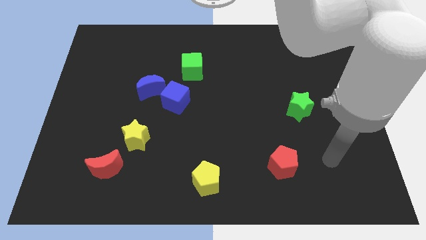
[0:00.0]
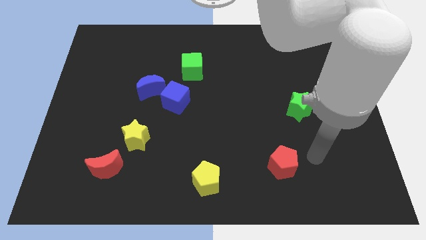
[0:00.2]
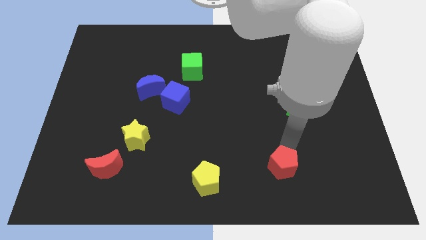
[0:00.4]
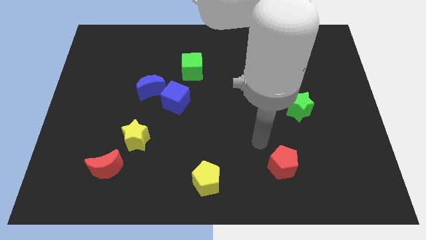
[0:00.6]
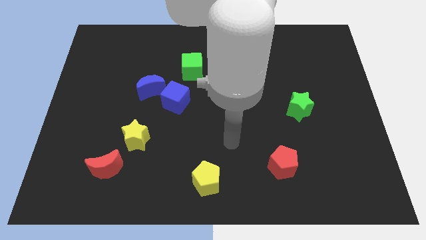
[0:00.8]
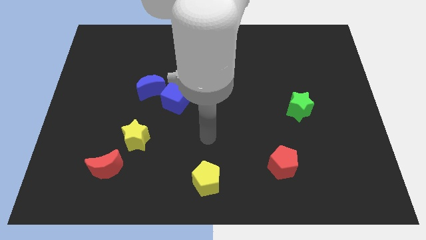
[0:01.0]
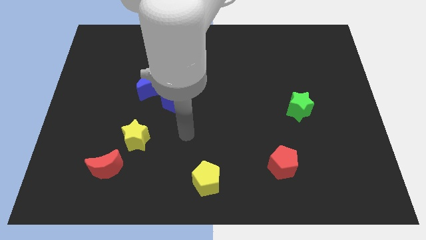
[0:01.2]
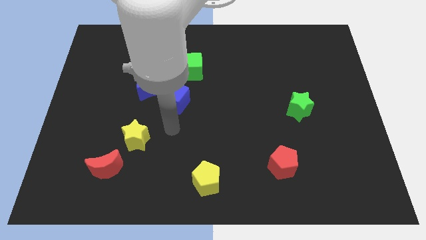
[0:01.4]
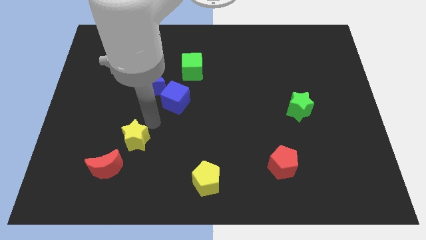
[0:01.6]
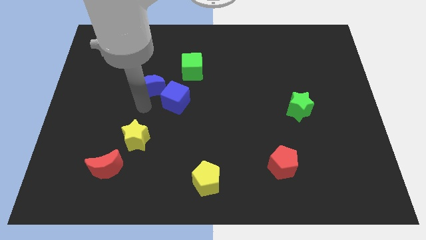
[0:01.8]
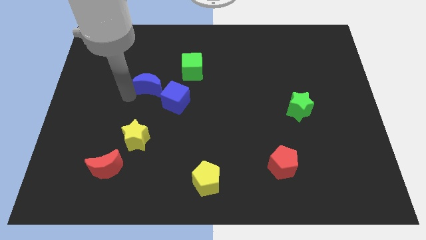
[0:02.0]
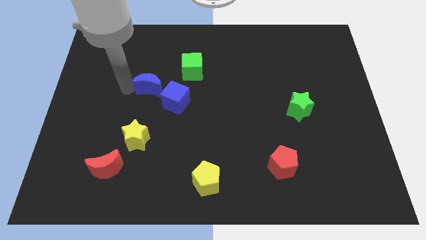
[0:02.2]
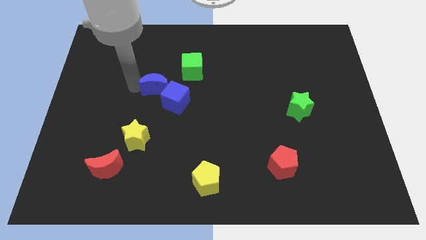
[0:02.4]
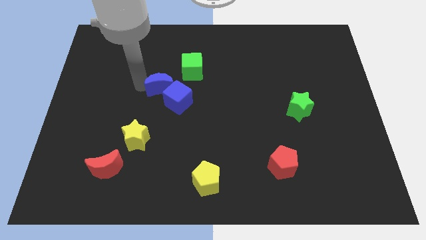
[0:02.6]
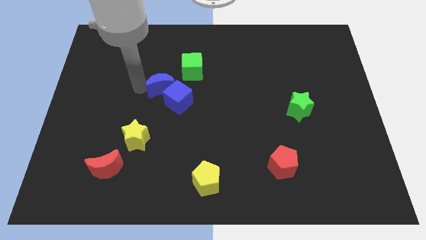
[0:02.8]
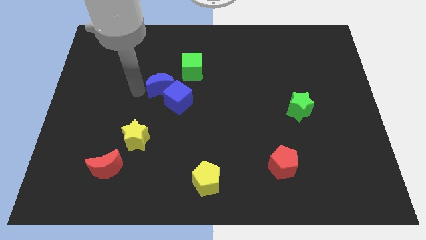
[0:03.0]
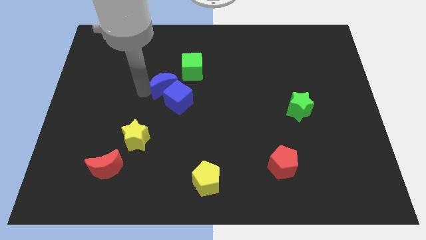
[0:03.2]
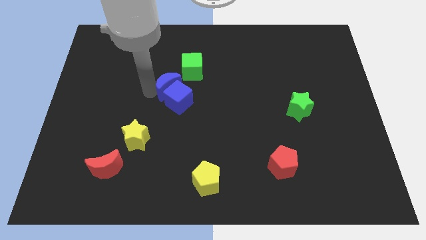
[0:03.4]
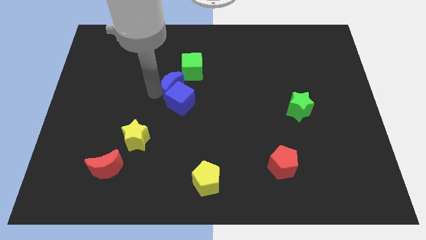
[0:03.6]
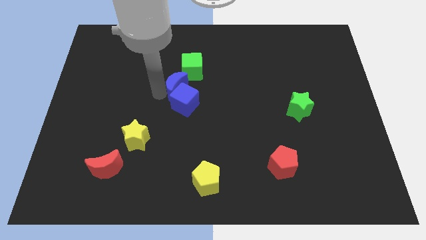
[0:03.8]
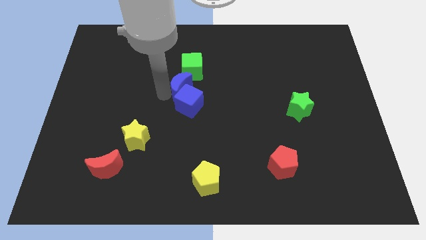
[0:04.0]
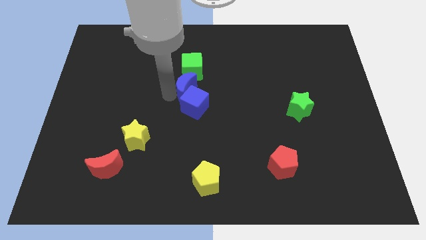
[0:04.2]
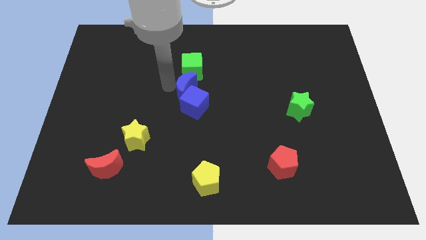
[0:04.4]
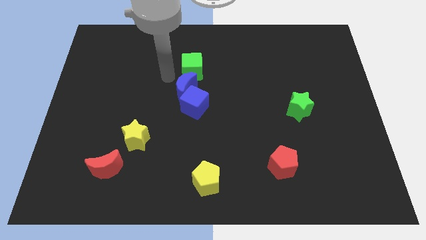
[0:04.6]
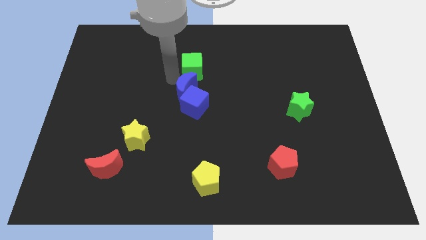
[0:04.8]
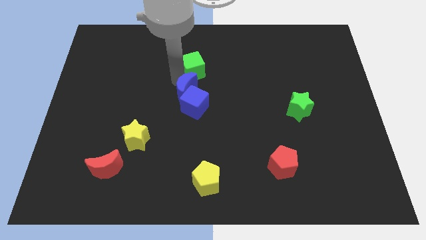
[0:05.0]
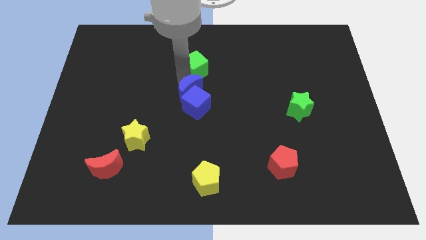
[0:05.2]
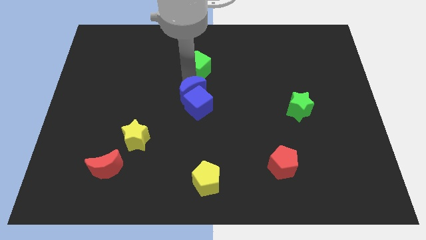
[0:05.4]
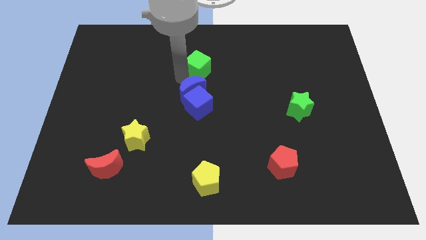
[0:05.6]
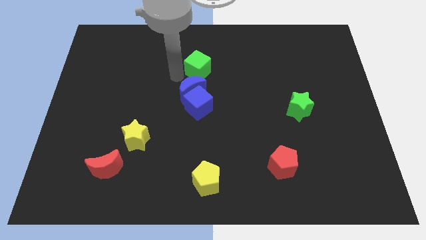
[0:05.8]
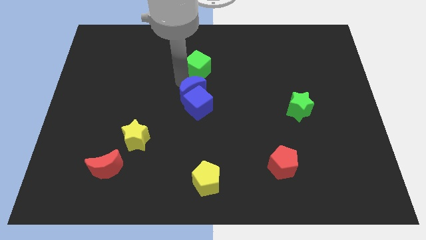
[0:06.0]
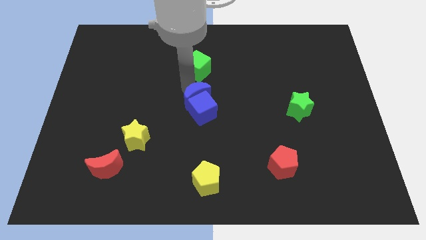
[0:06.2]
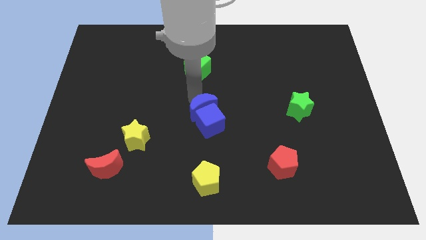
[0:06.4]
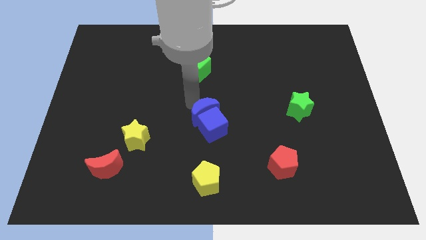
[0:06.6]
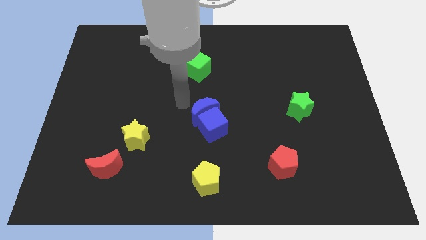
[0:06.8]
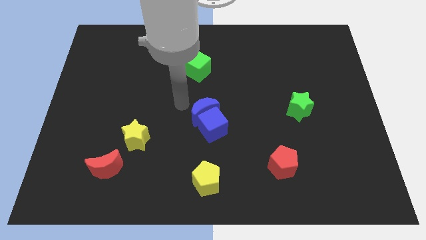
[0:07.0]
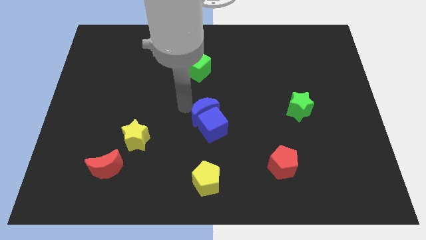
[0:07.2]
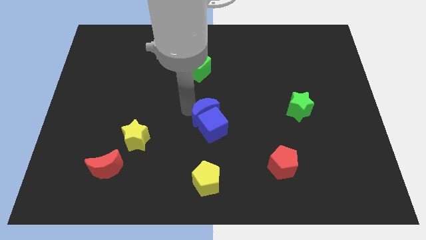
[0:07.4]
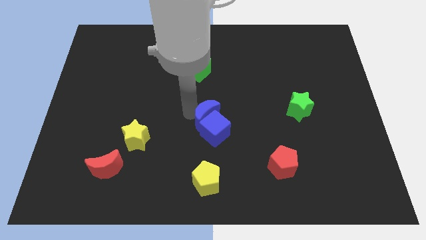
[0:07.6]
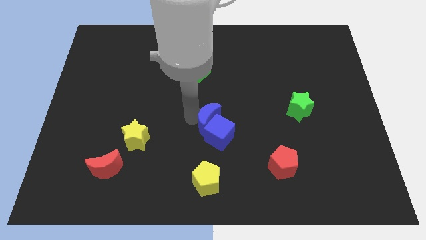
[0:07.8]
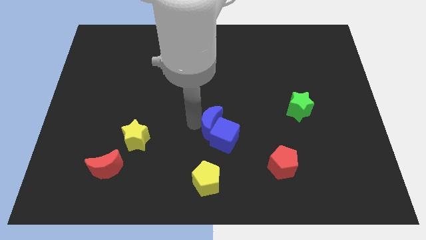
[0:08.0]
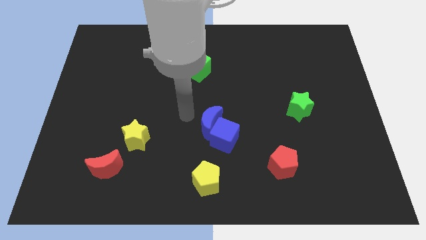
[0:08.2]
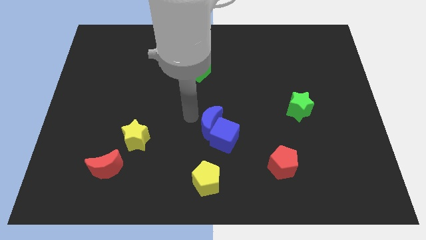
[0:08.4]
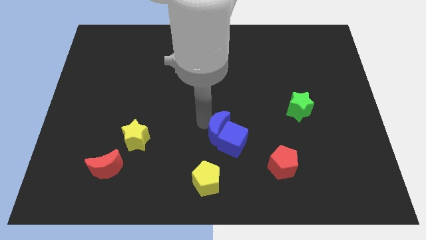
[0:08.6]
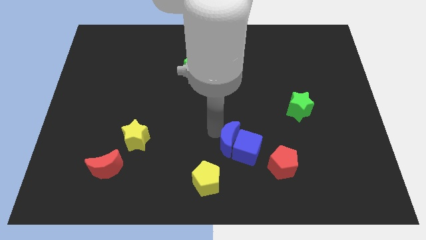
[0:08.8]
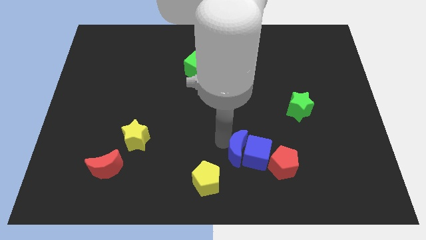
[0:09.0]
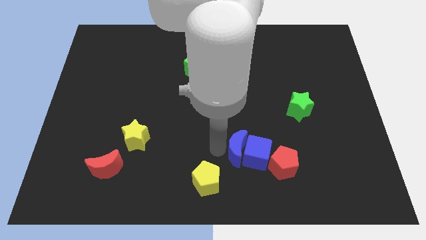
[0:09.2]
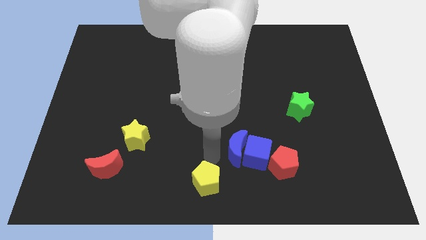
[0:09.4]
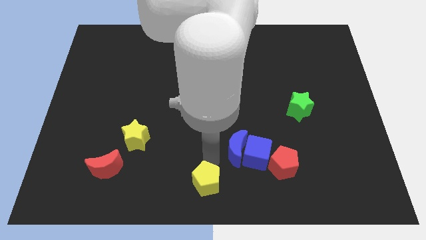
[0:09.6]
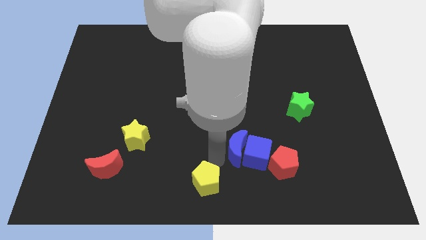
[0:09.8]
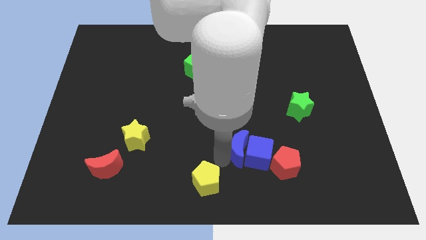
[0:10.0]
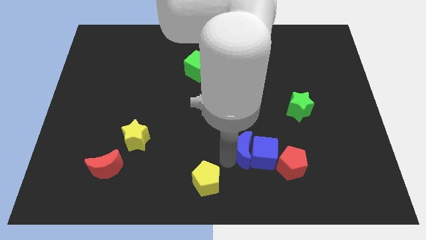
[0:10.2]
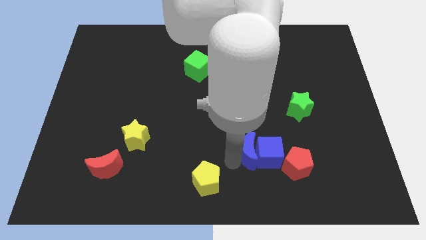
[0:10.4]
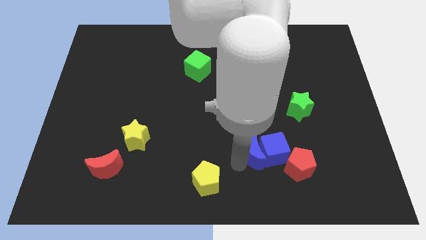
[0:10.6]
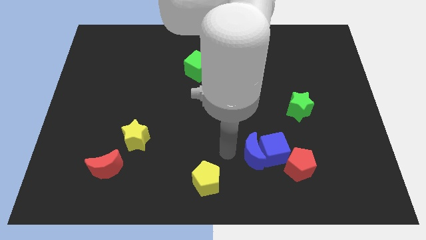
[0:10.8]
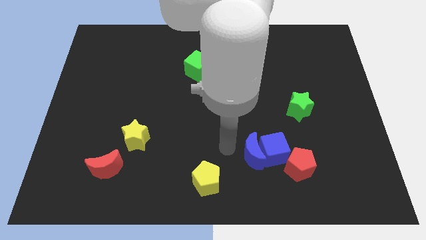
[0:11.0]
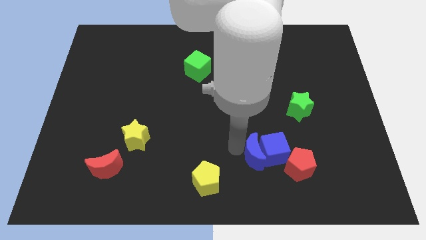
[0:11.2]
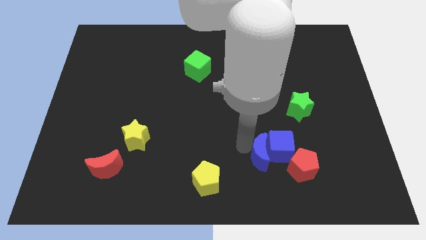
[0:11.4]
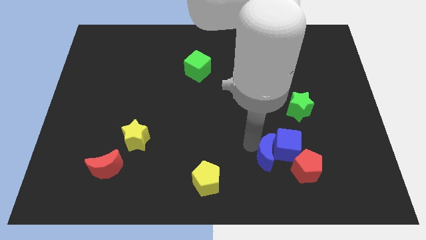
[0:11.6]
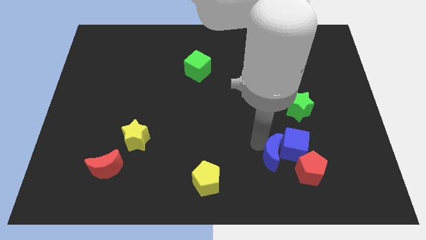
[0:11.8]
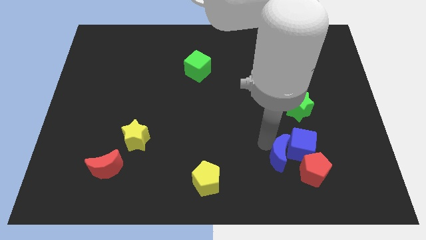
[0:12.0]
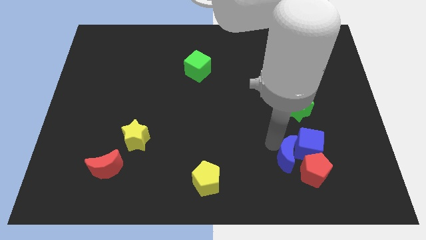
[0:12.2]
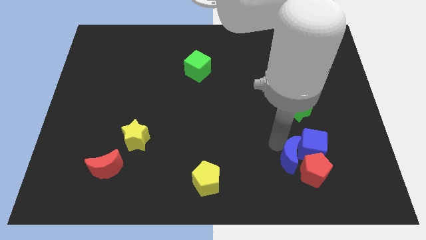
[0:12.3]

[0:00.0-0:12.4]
push the blue moon to the red pentagon
